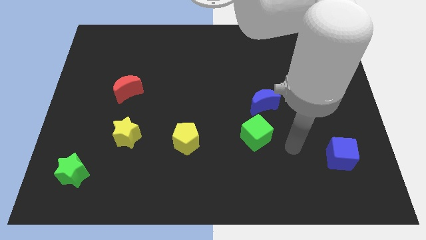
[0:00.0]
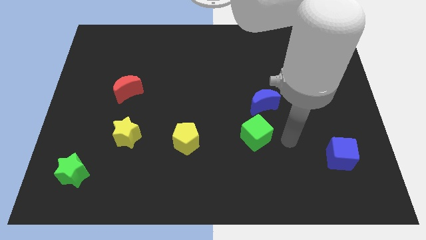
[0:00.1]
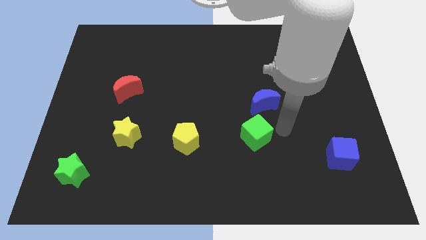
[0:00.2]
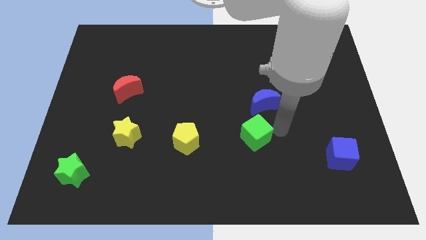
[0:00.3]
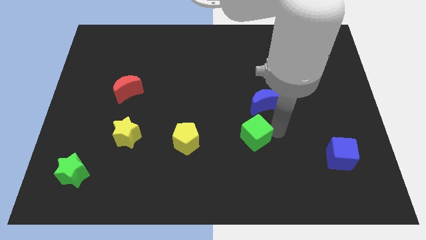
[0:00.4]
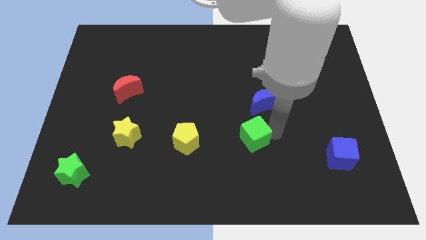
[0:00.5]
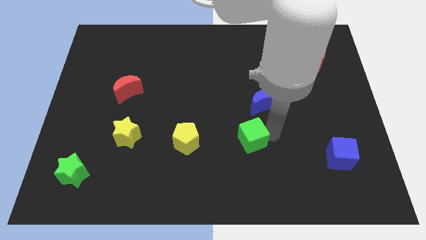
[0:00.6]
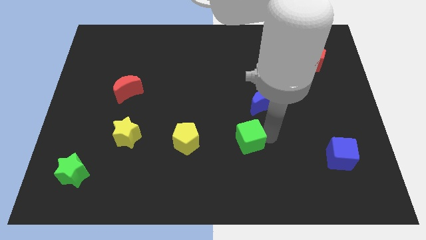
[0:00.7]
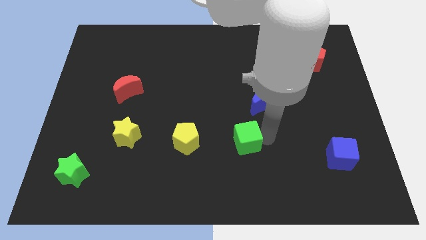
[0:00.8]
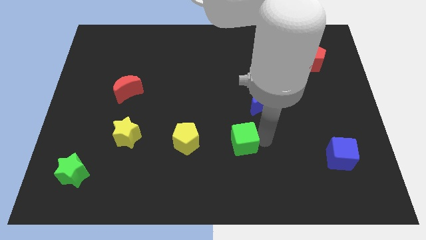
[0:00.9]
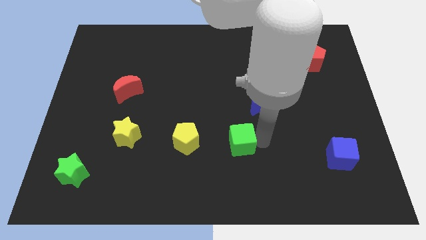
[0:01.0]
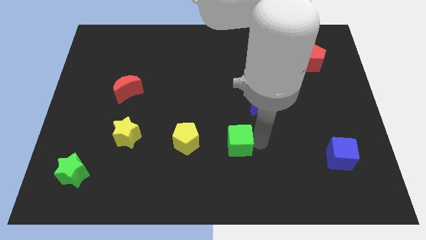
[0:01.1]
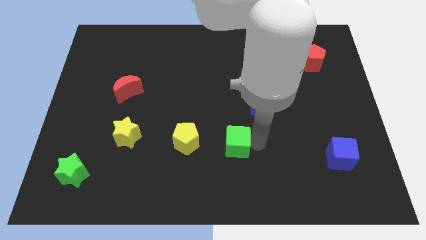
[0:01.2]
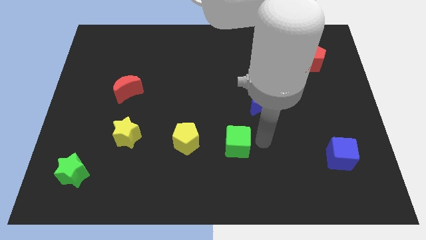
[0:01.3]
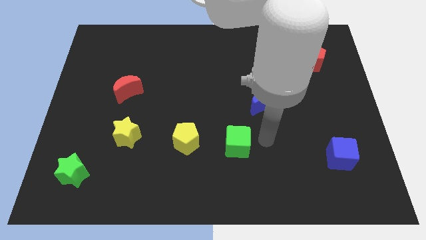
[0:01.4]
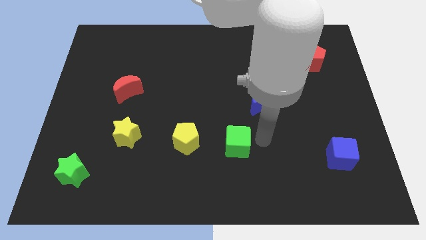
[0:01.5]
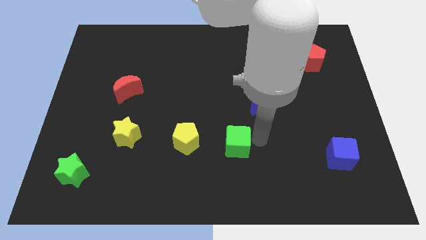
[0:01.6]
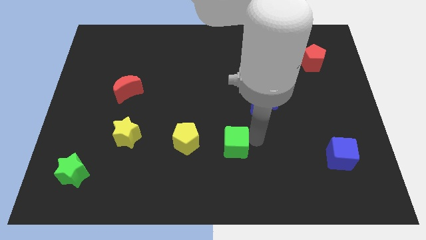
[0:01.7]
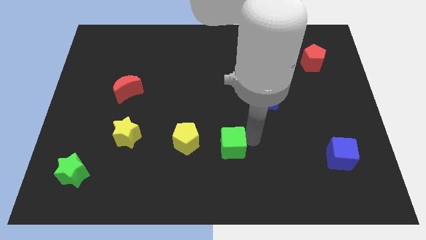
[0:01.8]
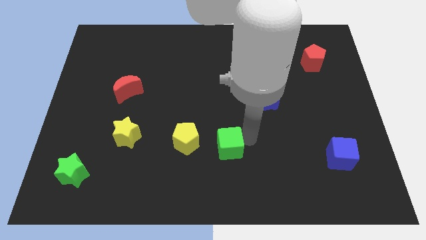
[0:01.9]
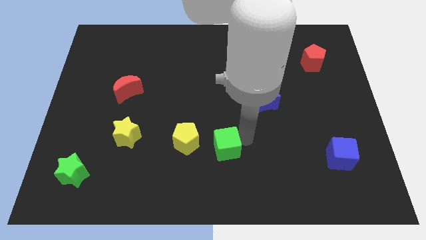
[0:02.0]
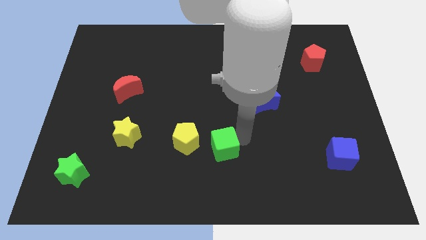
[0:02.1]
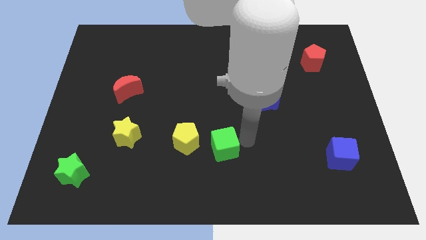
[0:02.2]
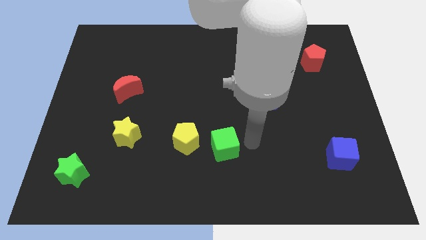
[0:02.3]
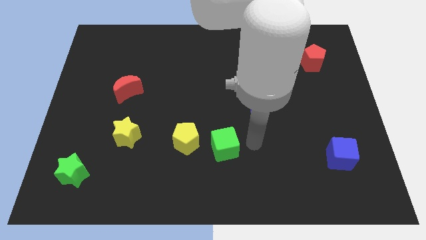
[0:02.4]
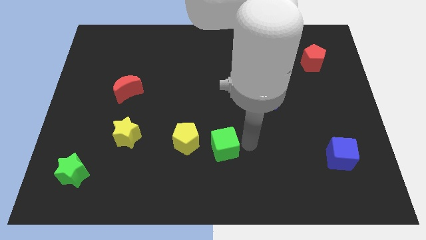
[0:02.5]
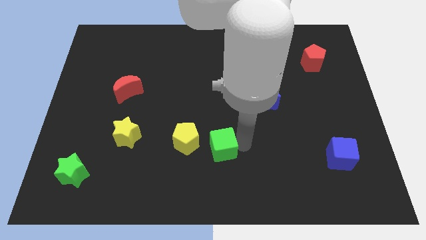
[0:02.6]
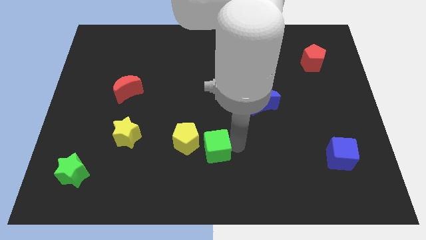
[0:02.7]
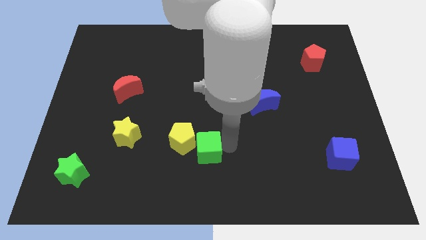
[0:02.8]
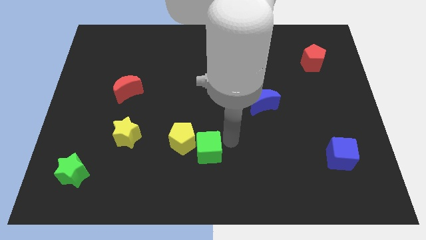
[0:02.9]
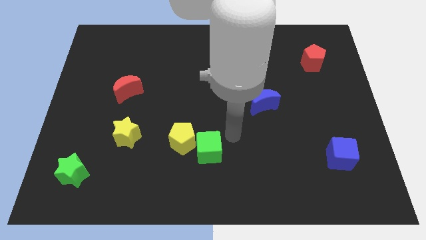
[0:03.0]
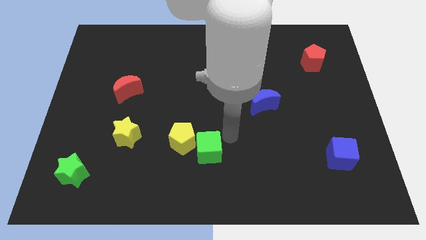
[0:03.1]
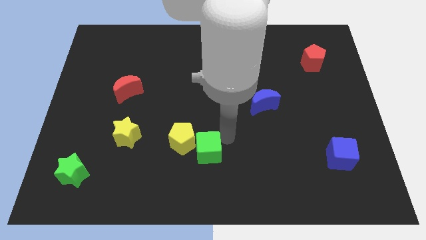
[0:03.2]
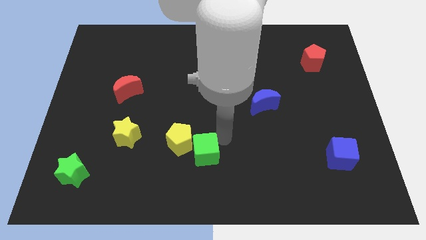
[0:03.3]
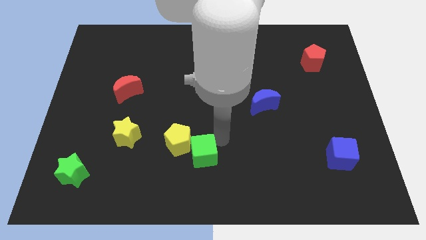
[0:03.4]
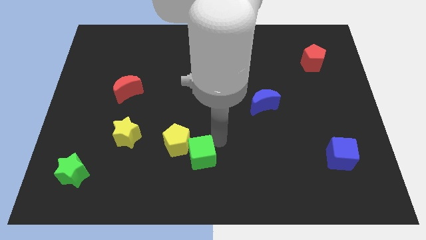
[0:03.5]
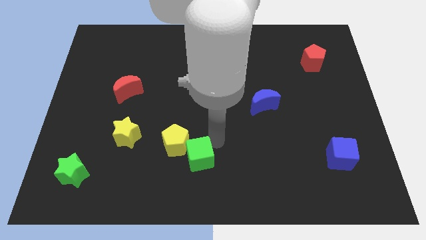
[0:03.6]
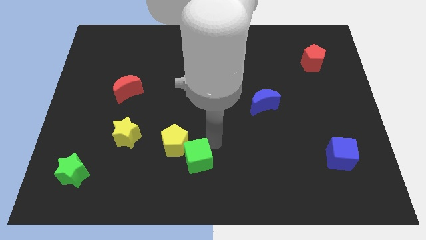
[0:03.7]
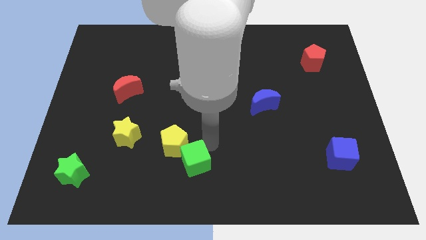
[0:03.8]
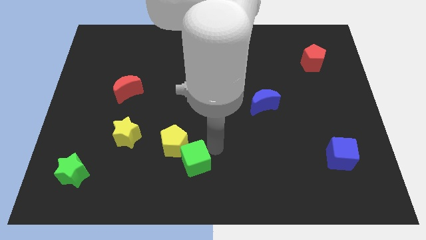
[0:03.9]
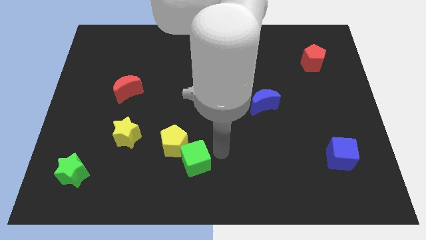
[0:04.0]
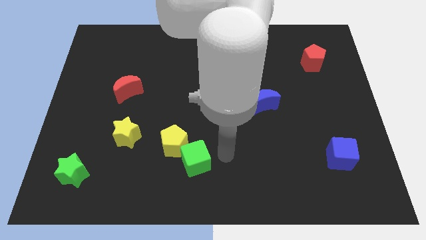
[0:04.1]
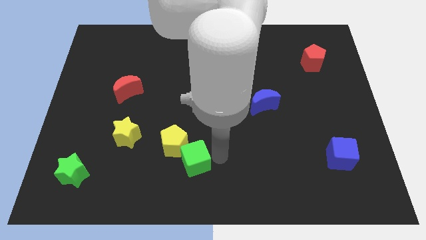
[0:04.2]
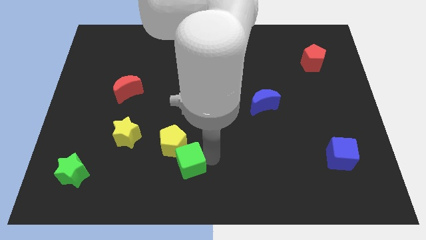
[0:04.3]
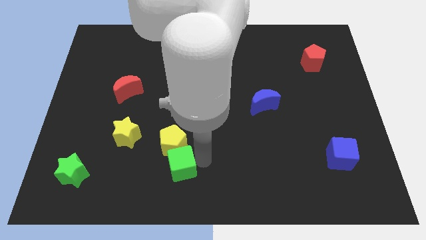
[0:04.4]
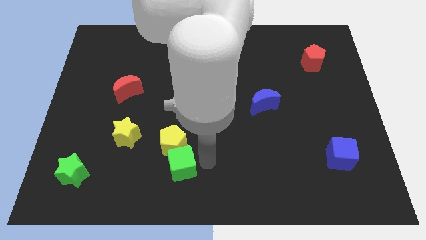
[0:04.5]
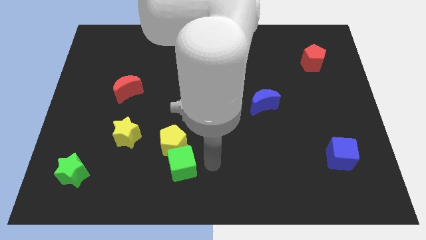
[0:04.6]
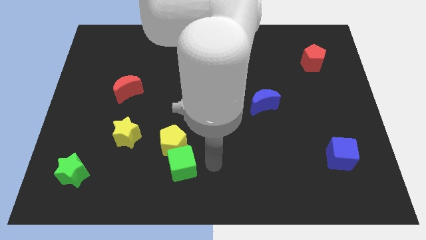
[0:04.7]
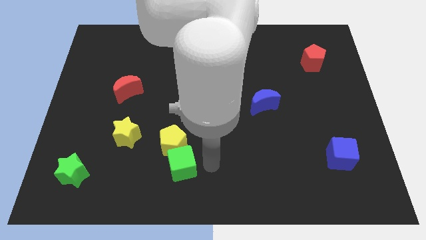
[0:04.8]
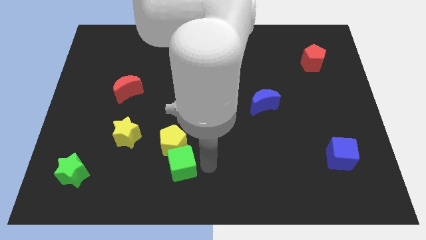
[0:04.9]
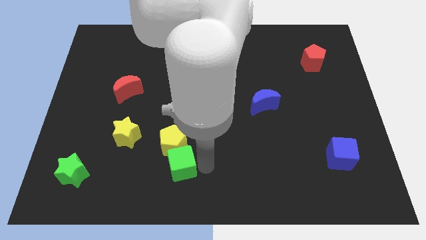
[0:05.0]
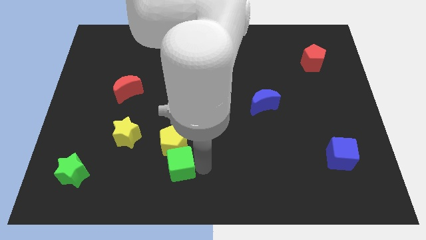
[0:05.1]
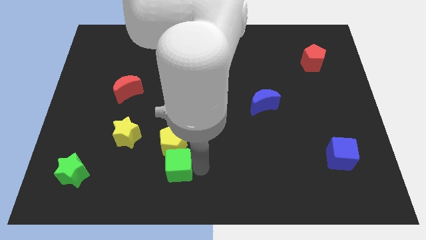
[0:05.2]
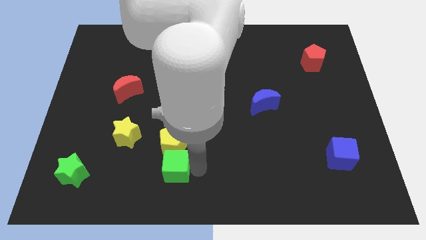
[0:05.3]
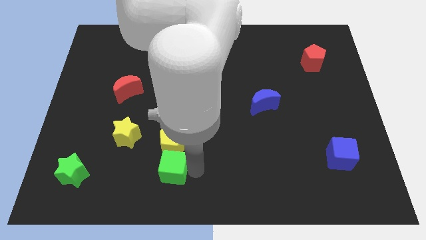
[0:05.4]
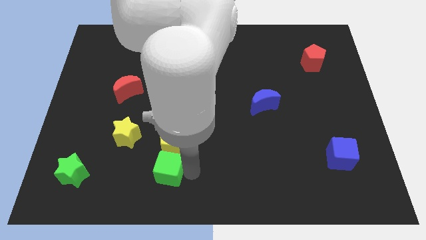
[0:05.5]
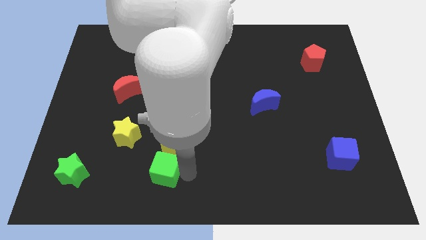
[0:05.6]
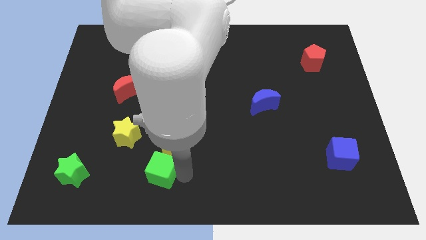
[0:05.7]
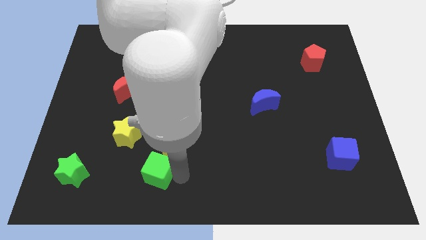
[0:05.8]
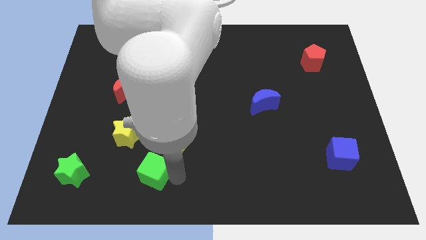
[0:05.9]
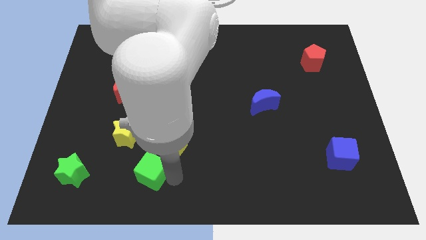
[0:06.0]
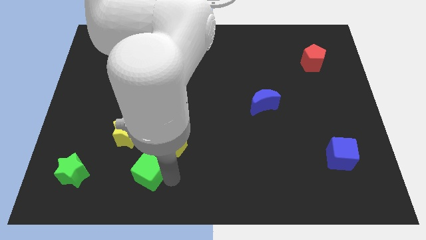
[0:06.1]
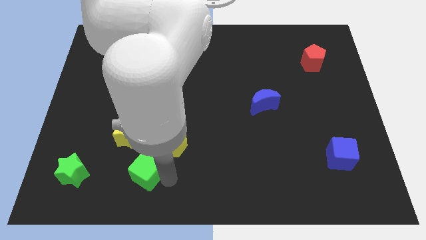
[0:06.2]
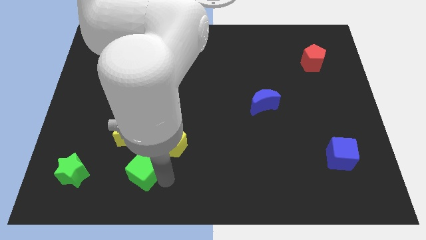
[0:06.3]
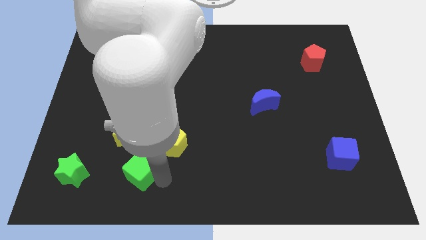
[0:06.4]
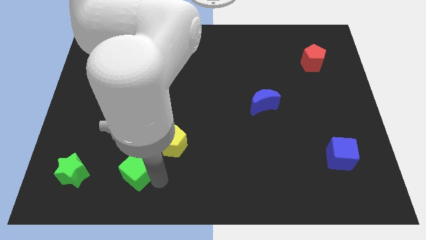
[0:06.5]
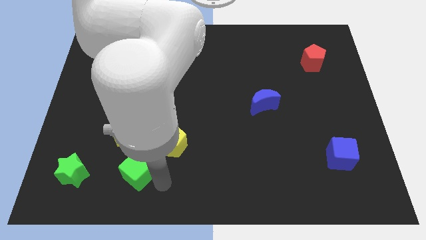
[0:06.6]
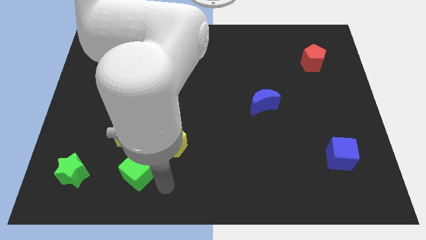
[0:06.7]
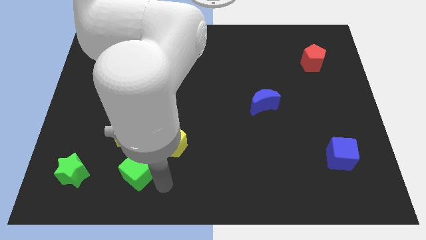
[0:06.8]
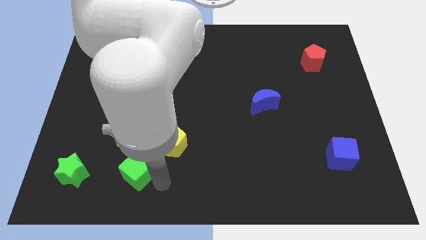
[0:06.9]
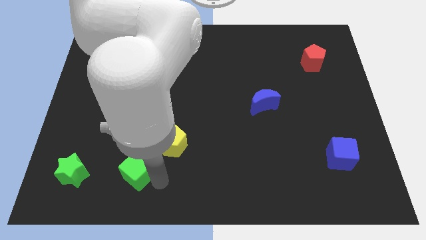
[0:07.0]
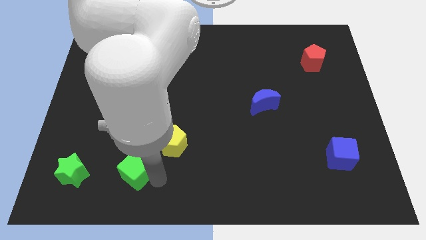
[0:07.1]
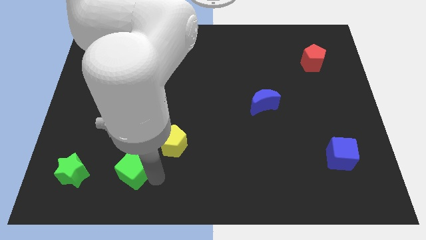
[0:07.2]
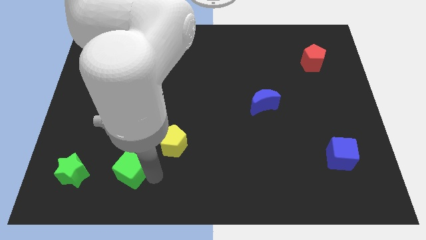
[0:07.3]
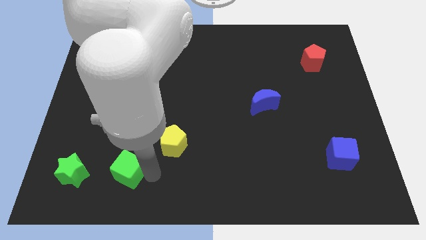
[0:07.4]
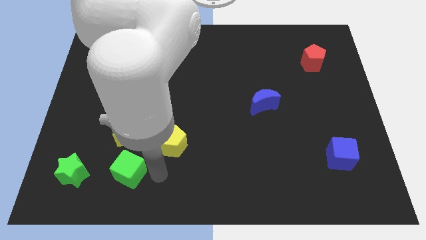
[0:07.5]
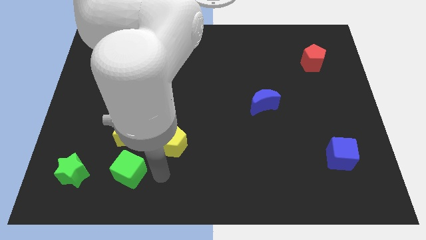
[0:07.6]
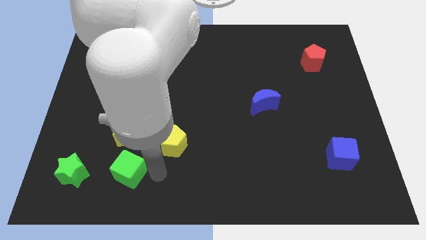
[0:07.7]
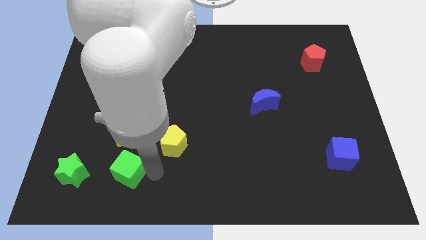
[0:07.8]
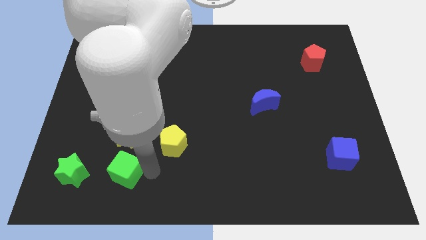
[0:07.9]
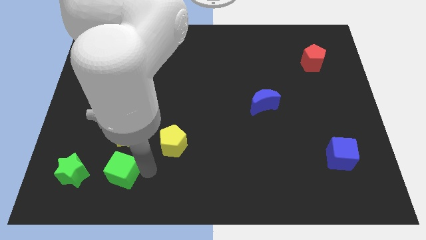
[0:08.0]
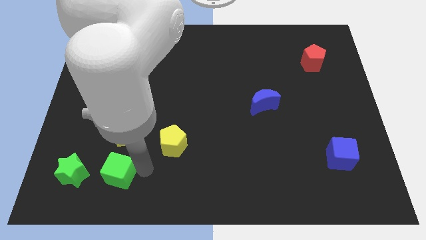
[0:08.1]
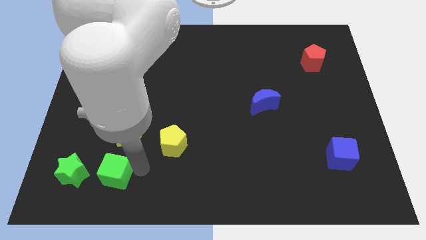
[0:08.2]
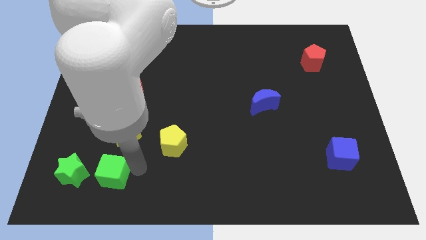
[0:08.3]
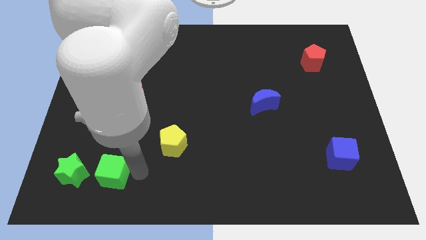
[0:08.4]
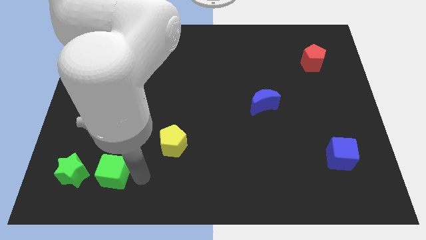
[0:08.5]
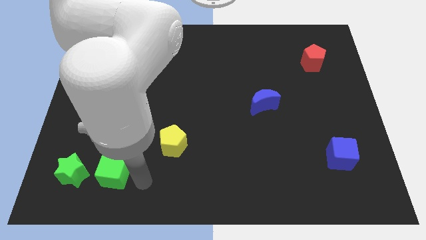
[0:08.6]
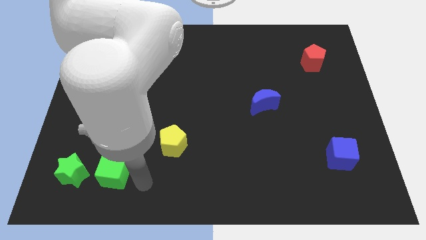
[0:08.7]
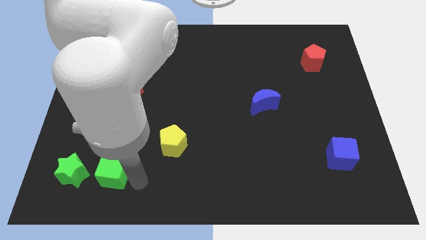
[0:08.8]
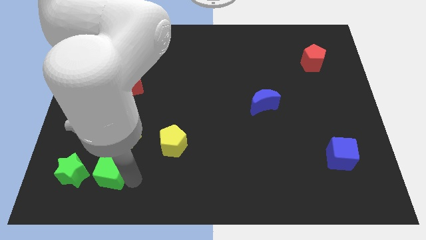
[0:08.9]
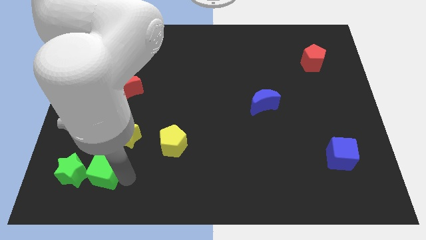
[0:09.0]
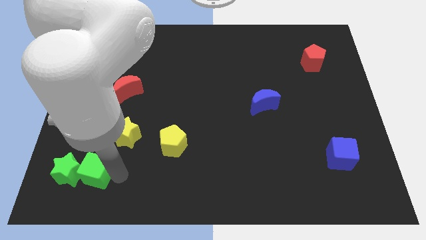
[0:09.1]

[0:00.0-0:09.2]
push the green cube towards the green star
